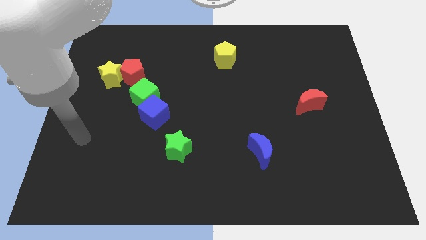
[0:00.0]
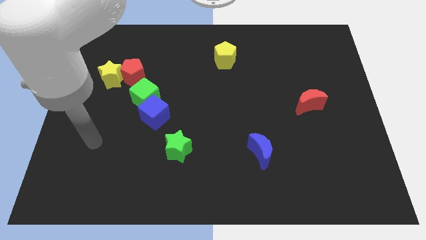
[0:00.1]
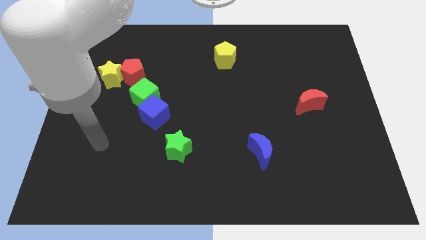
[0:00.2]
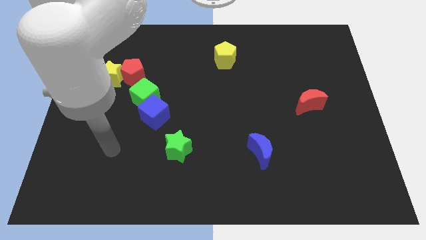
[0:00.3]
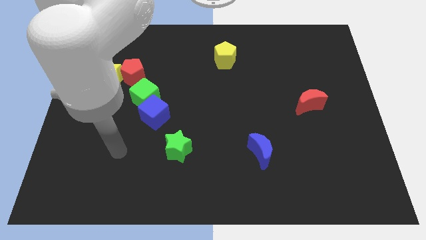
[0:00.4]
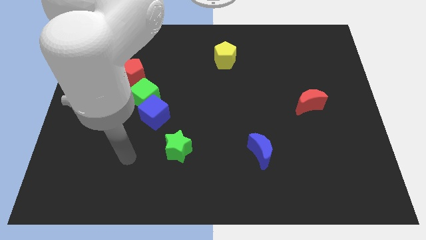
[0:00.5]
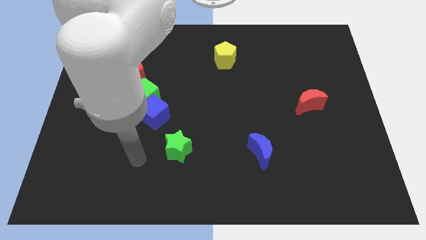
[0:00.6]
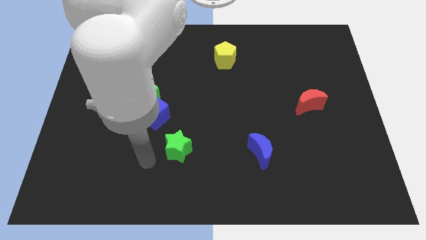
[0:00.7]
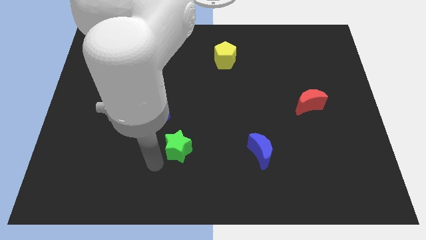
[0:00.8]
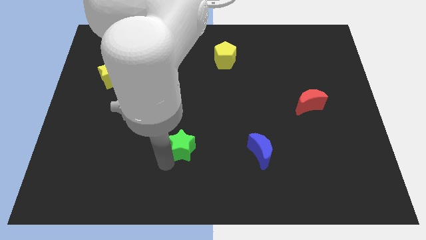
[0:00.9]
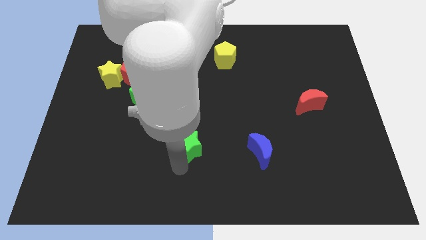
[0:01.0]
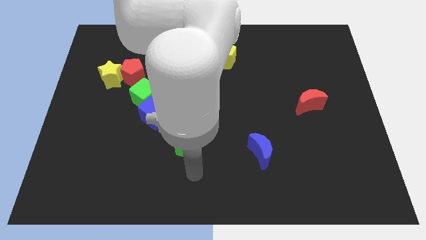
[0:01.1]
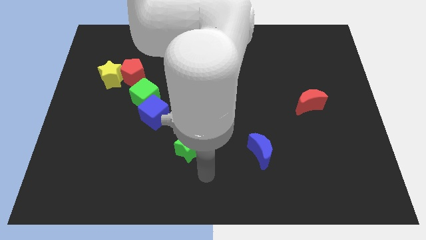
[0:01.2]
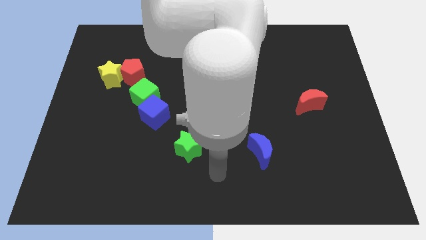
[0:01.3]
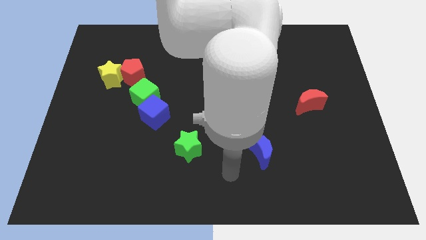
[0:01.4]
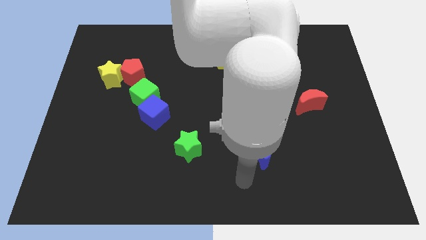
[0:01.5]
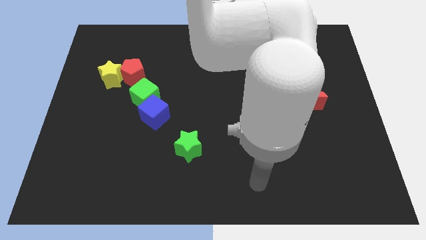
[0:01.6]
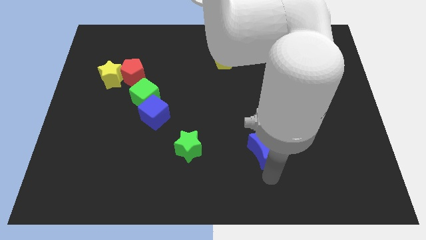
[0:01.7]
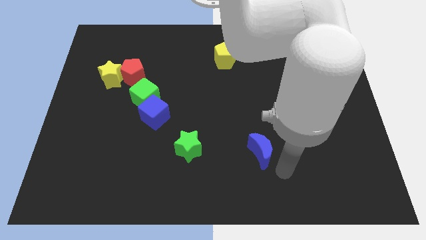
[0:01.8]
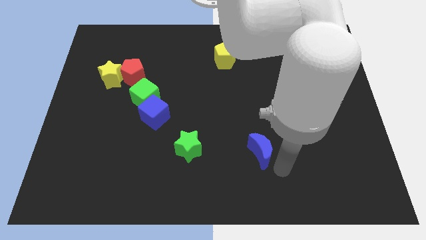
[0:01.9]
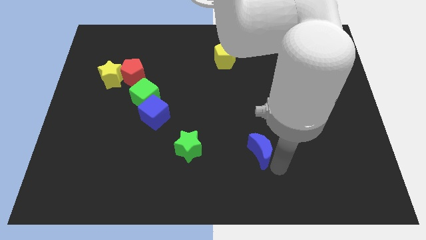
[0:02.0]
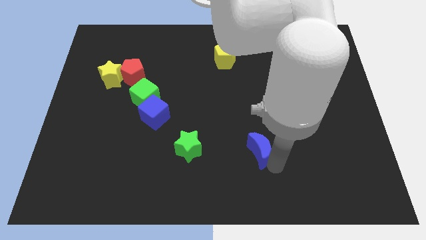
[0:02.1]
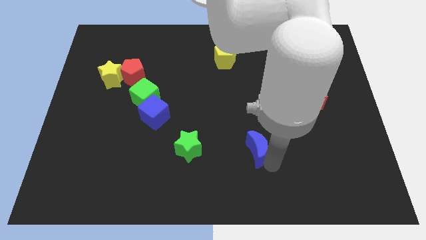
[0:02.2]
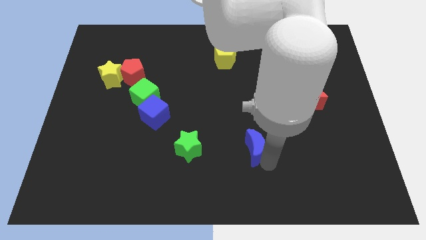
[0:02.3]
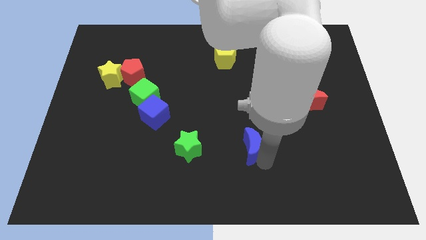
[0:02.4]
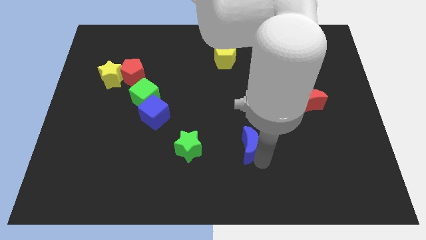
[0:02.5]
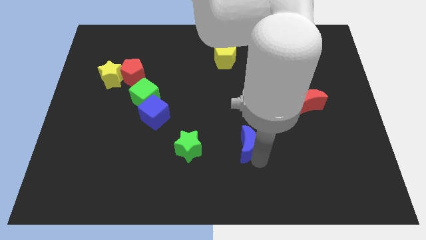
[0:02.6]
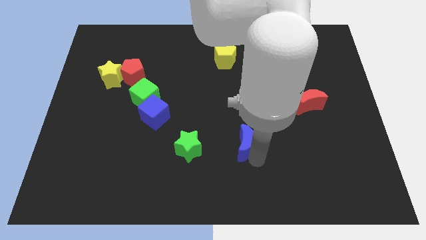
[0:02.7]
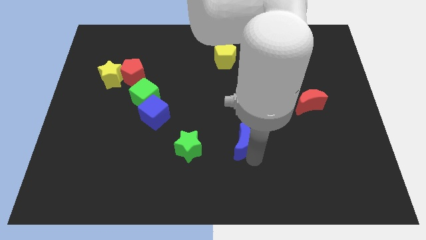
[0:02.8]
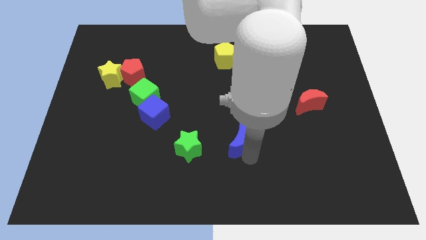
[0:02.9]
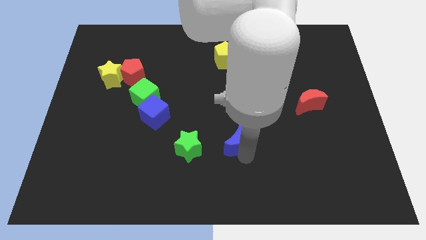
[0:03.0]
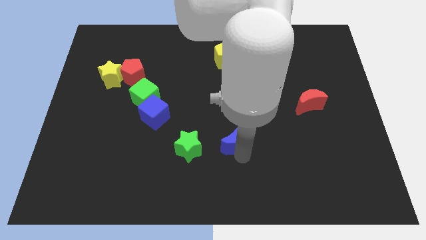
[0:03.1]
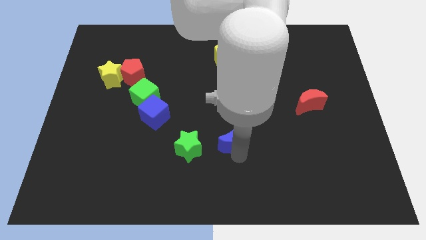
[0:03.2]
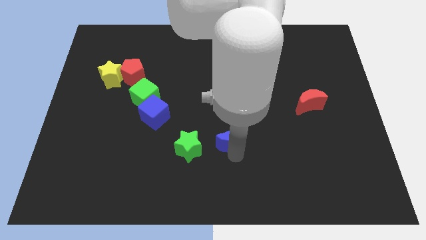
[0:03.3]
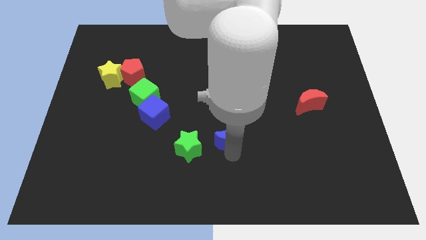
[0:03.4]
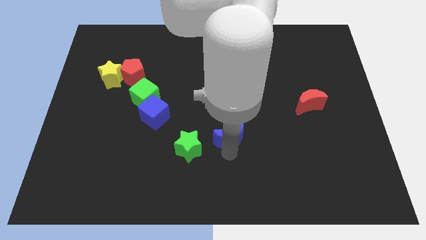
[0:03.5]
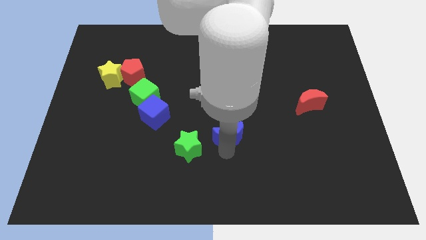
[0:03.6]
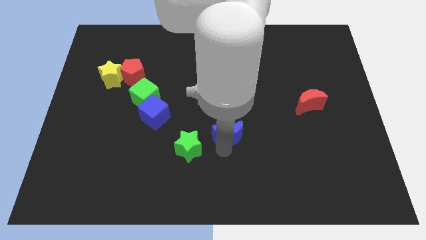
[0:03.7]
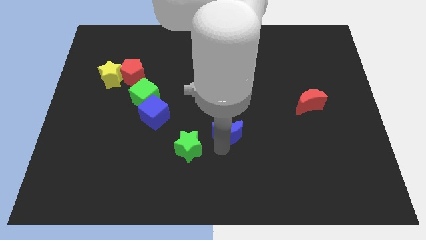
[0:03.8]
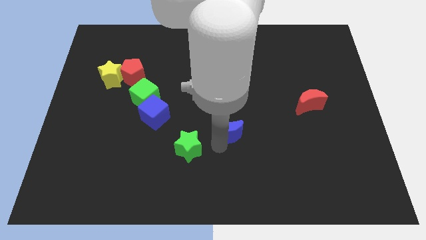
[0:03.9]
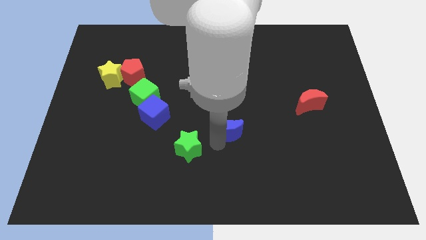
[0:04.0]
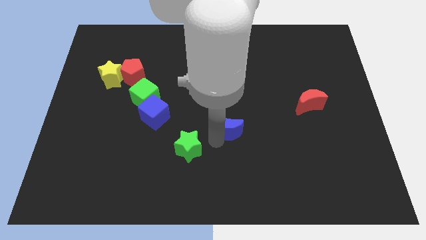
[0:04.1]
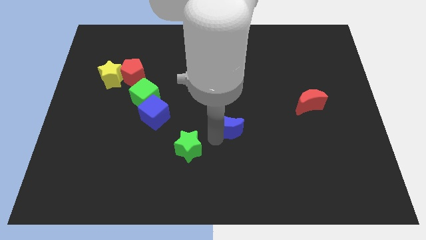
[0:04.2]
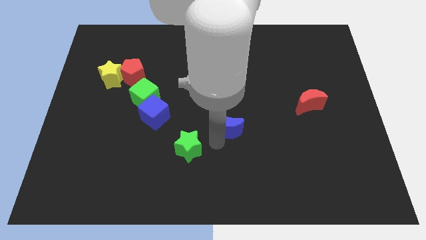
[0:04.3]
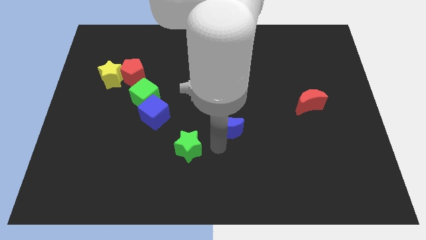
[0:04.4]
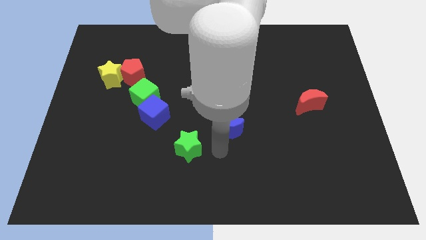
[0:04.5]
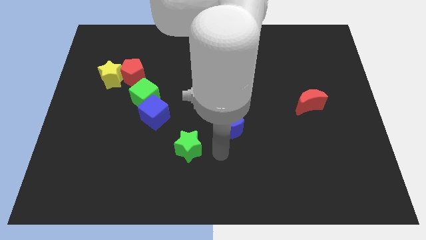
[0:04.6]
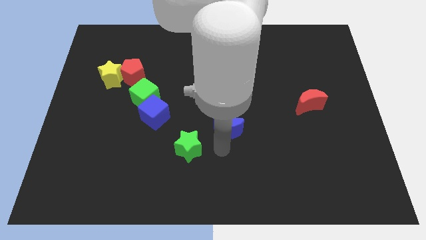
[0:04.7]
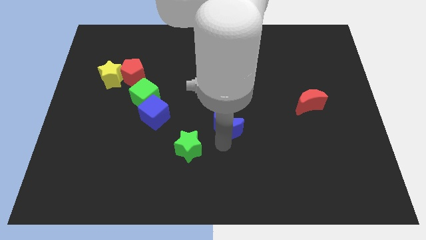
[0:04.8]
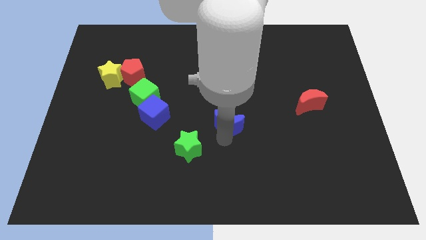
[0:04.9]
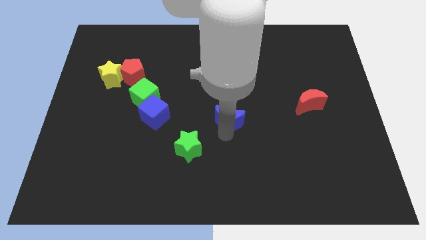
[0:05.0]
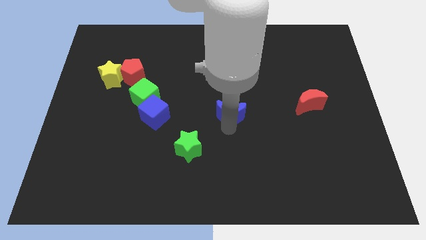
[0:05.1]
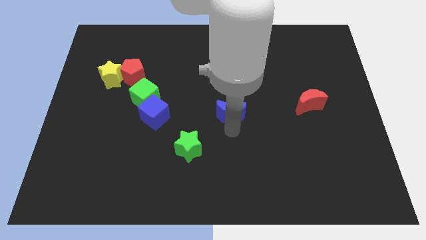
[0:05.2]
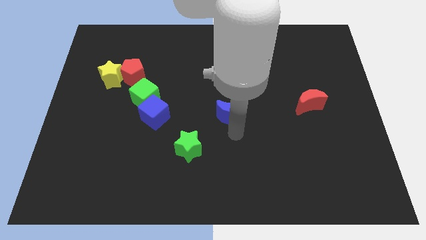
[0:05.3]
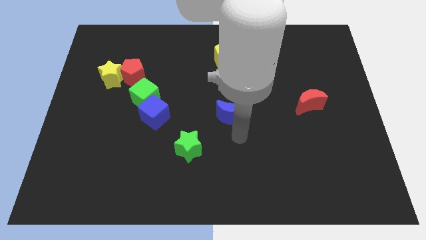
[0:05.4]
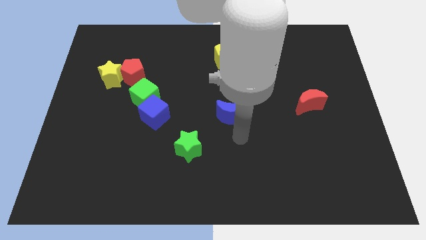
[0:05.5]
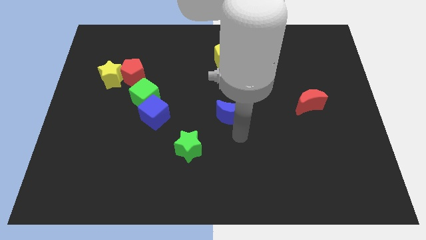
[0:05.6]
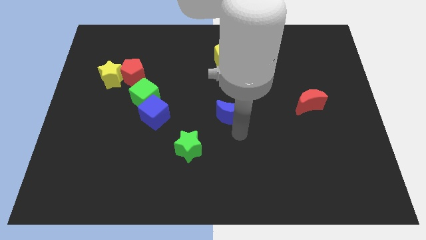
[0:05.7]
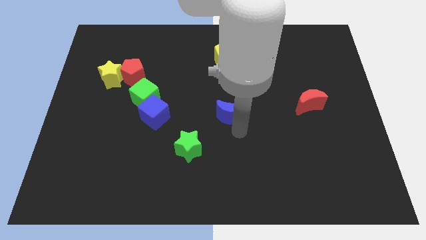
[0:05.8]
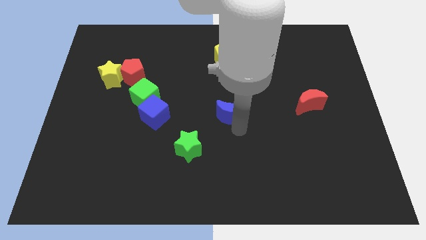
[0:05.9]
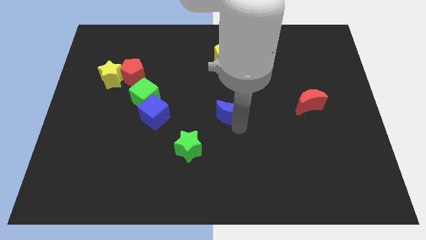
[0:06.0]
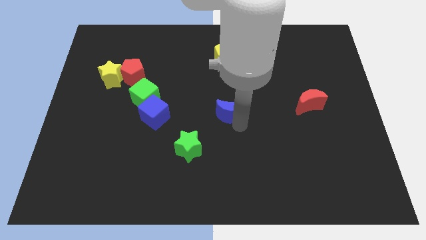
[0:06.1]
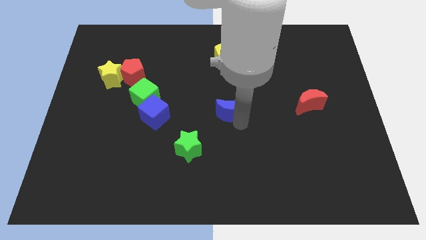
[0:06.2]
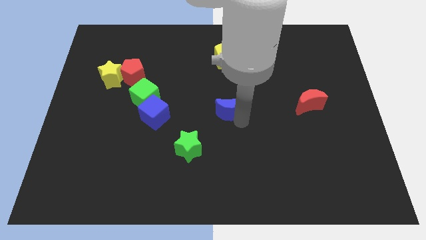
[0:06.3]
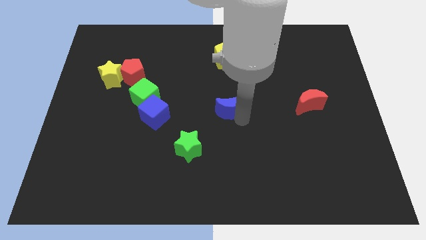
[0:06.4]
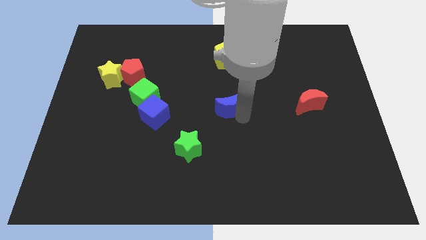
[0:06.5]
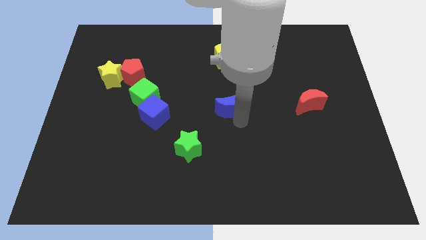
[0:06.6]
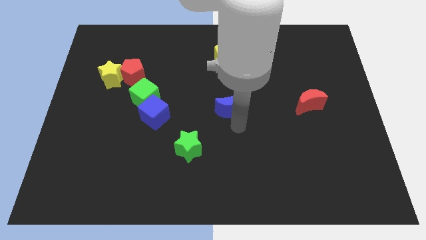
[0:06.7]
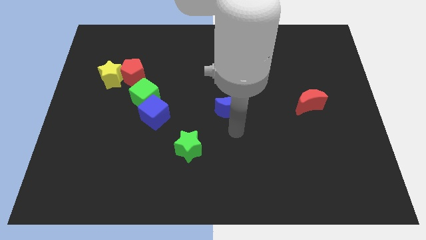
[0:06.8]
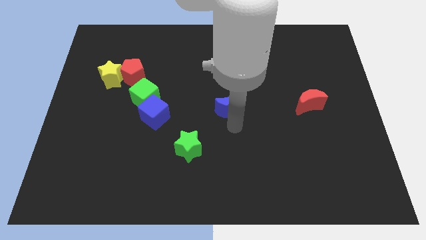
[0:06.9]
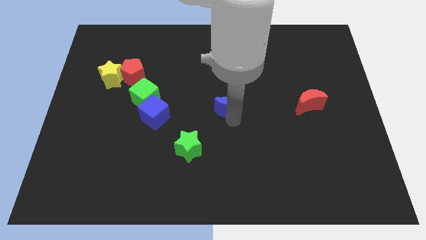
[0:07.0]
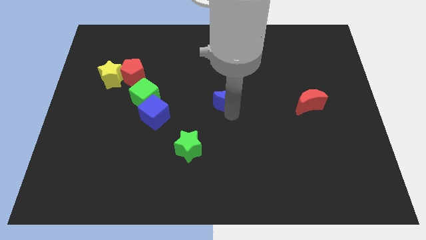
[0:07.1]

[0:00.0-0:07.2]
put the blue moon below the yellow pentagon
